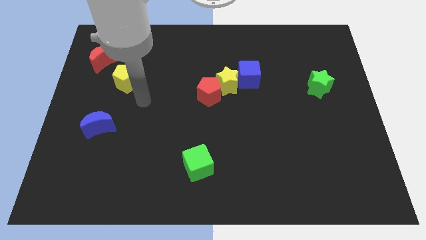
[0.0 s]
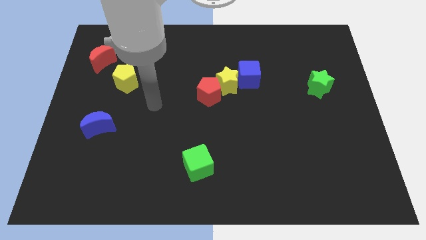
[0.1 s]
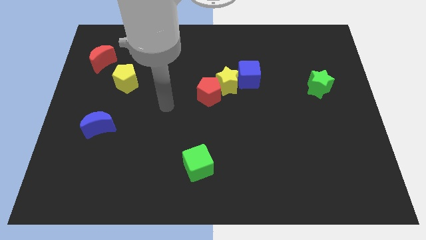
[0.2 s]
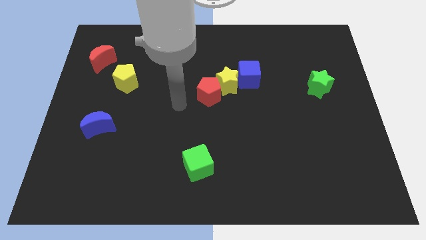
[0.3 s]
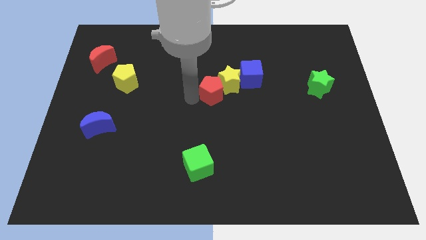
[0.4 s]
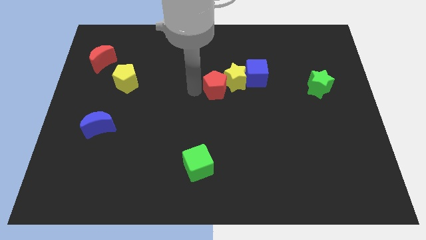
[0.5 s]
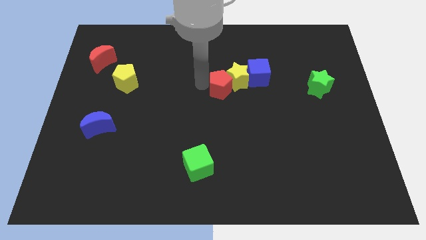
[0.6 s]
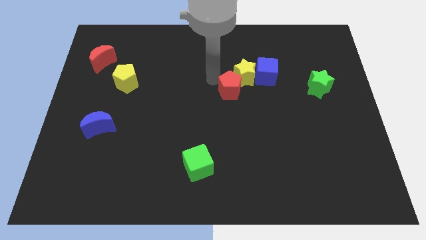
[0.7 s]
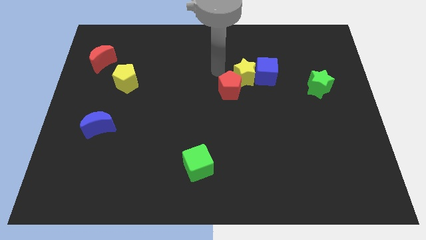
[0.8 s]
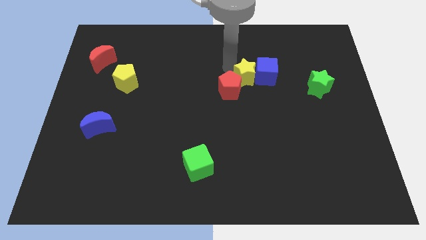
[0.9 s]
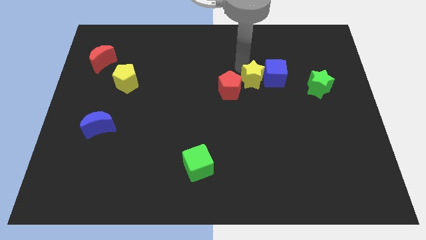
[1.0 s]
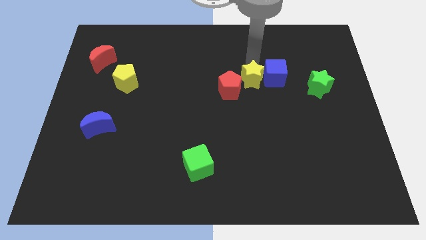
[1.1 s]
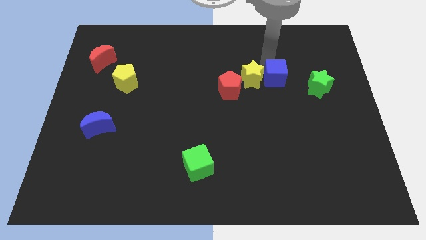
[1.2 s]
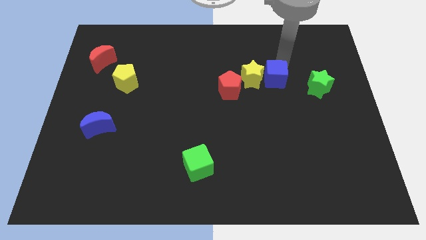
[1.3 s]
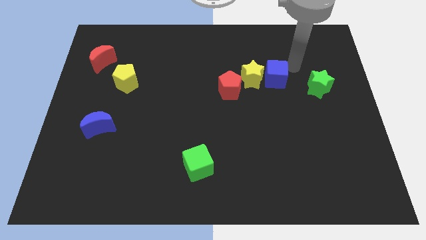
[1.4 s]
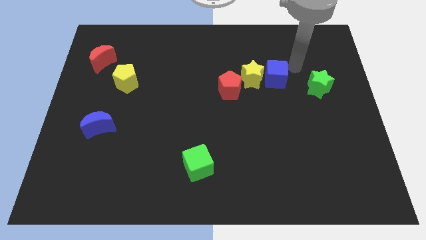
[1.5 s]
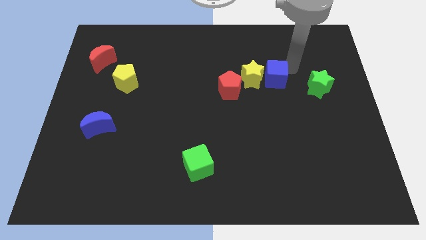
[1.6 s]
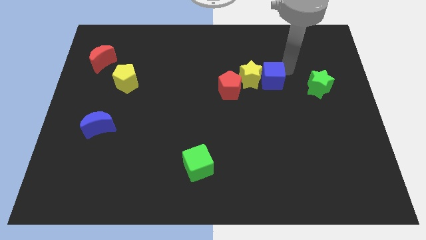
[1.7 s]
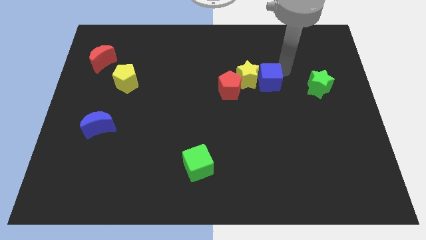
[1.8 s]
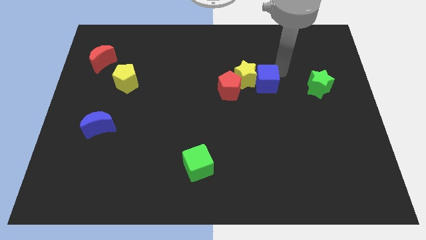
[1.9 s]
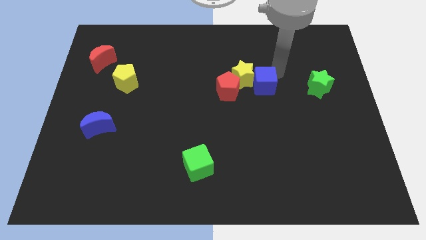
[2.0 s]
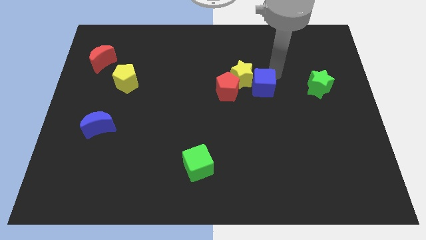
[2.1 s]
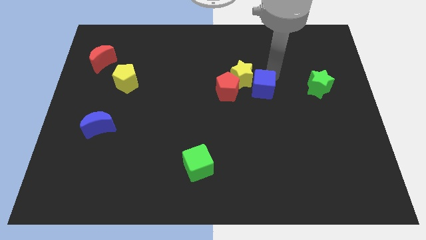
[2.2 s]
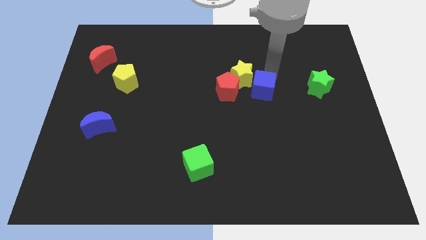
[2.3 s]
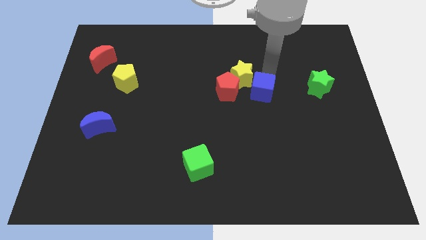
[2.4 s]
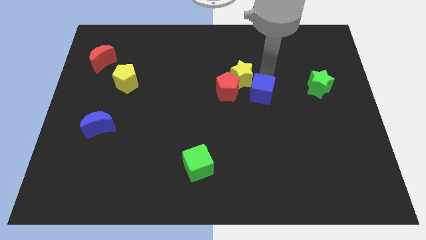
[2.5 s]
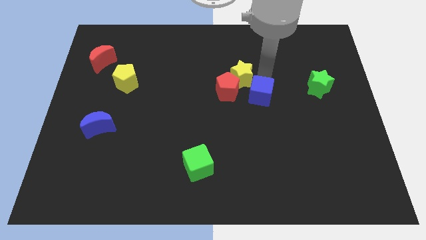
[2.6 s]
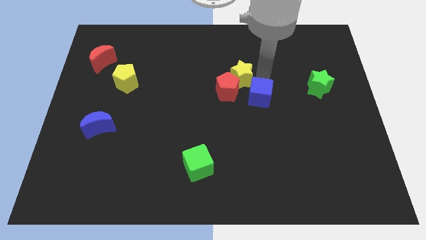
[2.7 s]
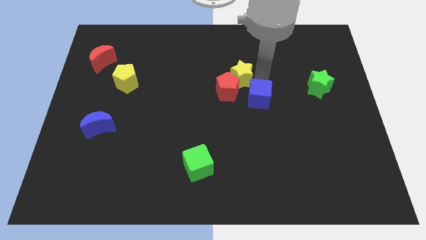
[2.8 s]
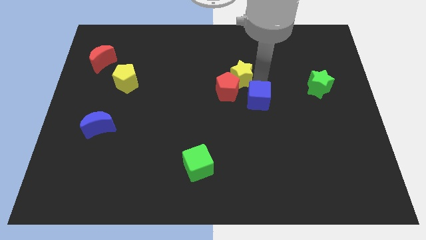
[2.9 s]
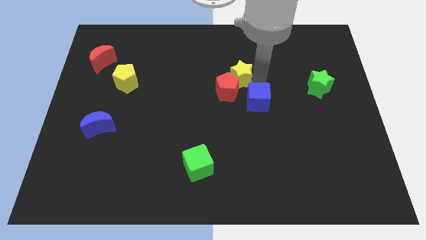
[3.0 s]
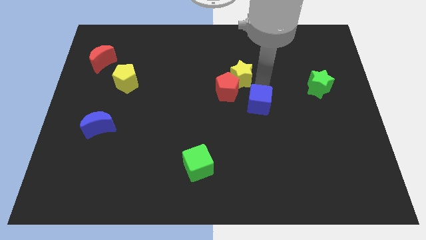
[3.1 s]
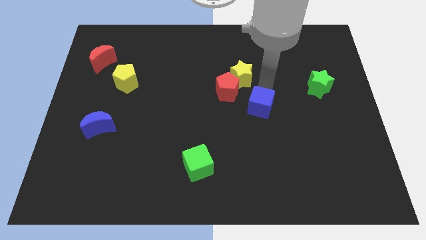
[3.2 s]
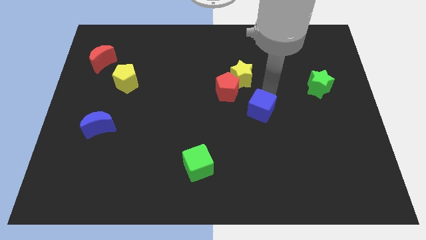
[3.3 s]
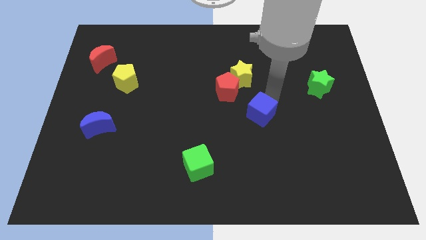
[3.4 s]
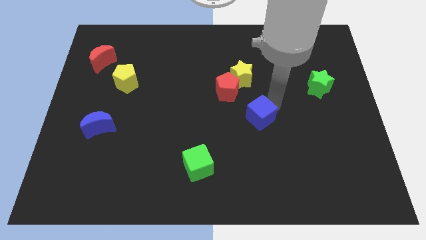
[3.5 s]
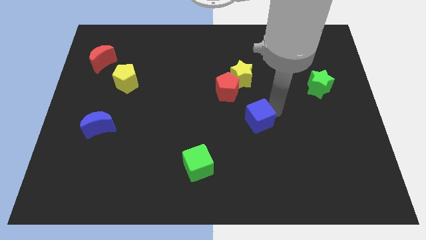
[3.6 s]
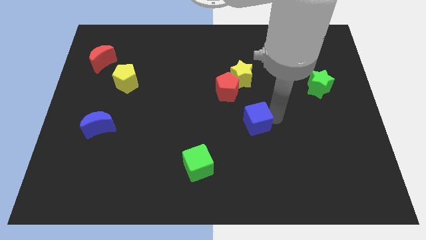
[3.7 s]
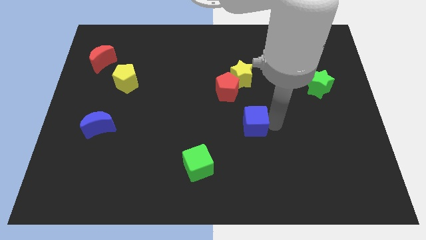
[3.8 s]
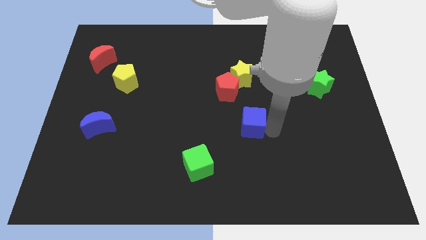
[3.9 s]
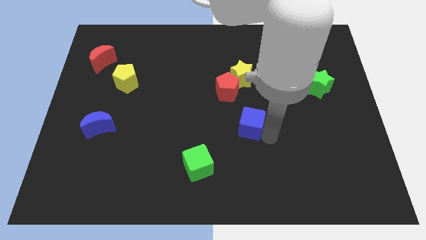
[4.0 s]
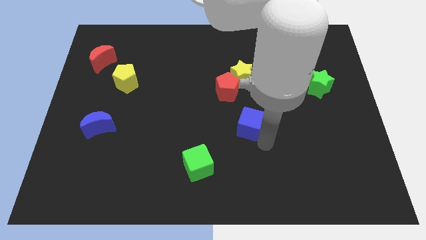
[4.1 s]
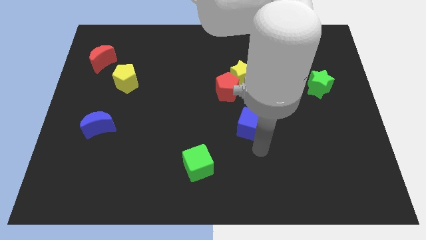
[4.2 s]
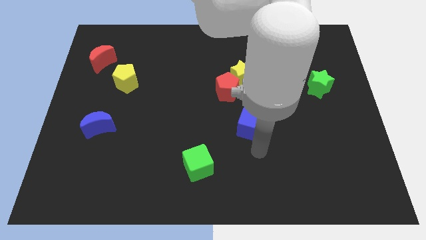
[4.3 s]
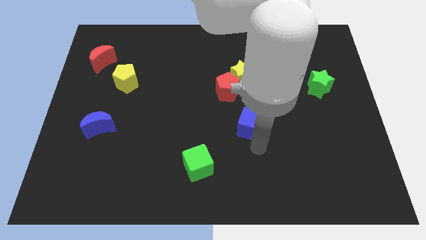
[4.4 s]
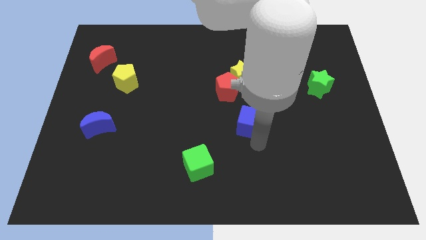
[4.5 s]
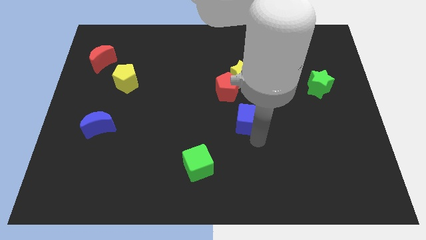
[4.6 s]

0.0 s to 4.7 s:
push the blue cube downwards and then to the left somewhat

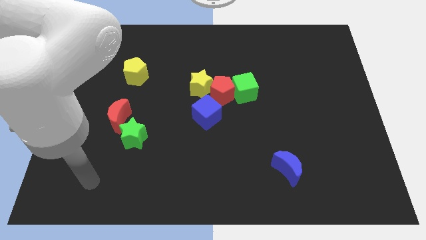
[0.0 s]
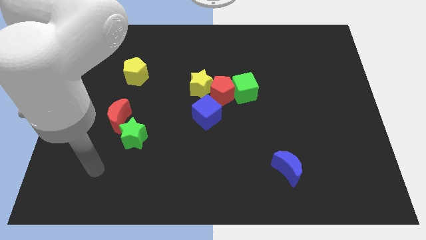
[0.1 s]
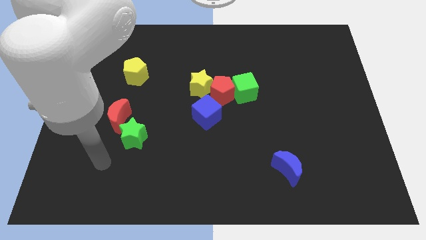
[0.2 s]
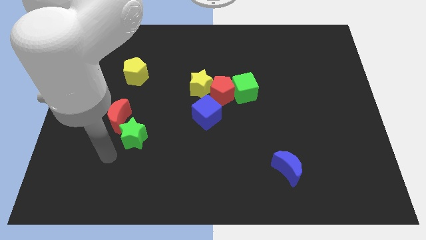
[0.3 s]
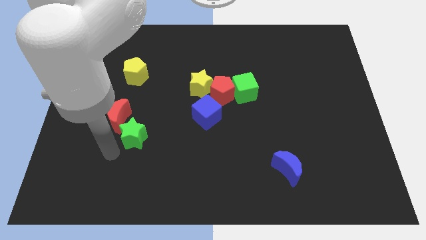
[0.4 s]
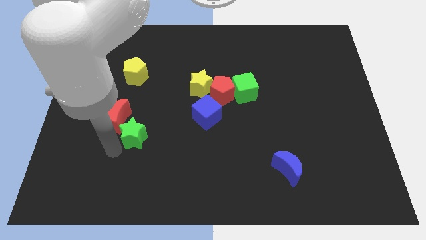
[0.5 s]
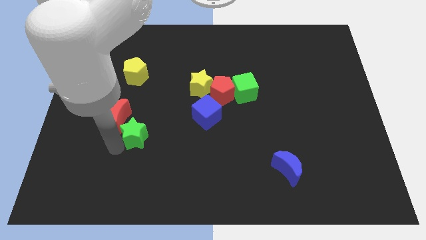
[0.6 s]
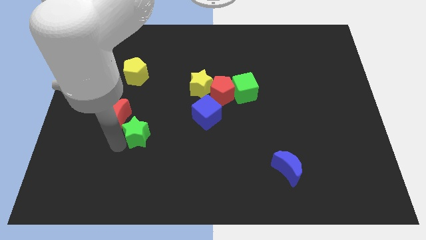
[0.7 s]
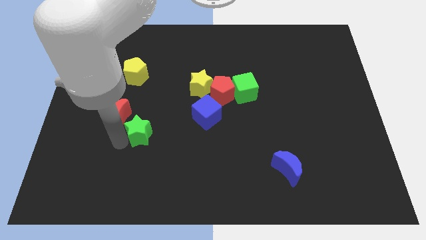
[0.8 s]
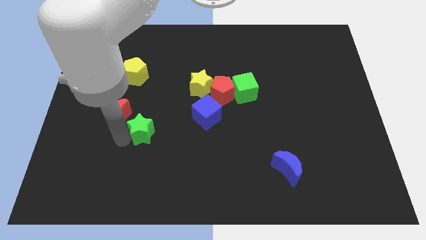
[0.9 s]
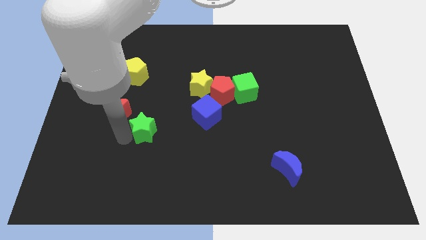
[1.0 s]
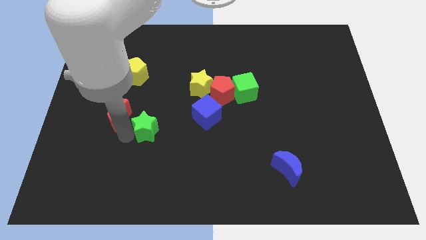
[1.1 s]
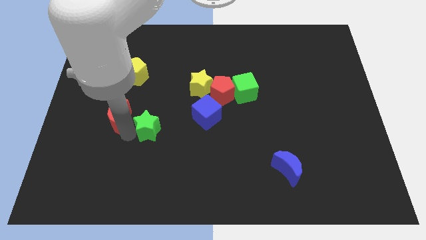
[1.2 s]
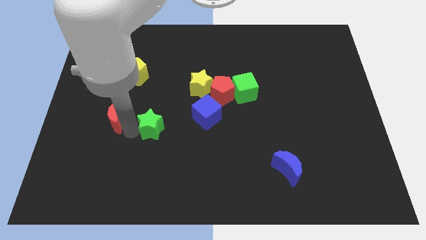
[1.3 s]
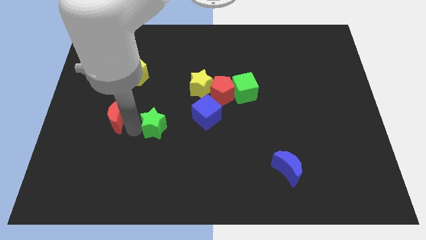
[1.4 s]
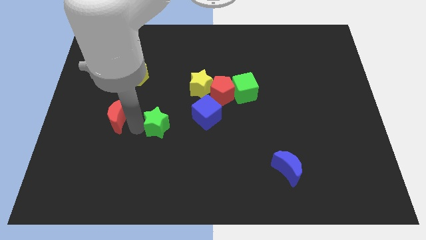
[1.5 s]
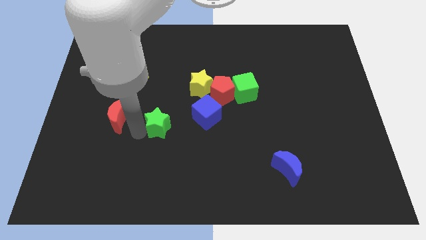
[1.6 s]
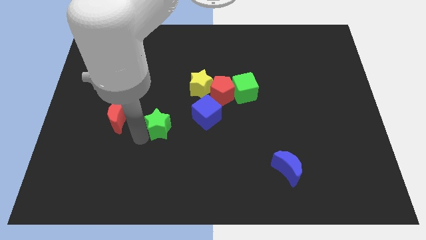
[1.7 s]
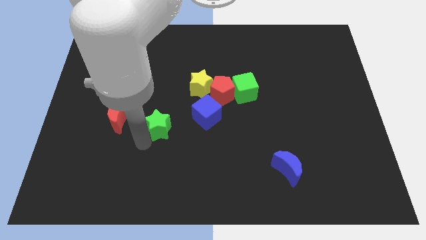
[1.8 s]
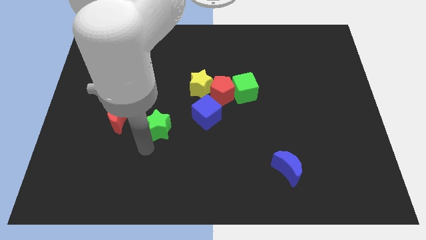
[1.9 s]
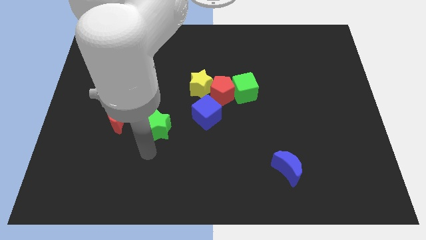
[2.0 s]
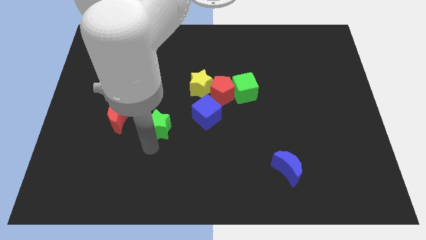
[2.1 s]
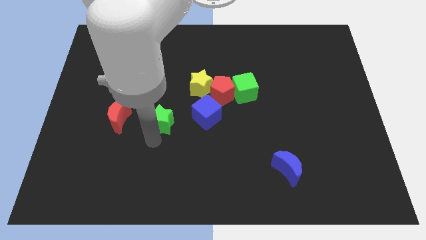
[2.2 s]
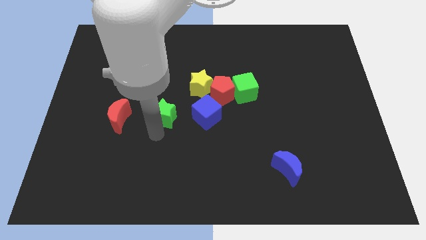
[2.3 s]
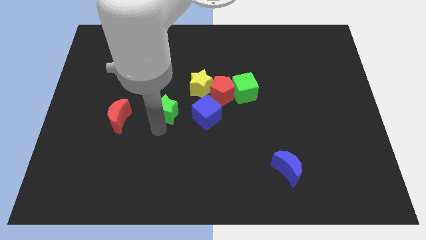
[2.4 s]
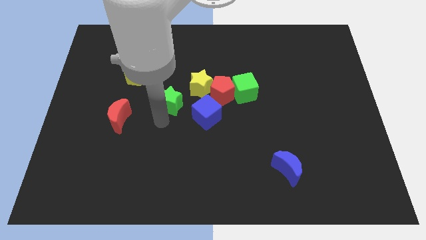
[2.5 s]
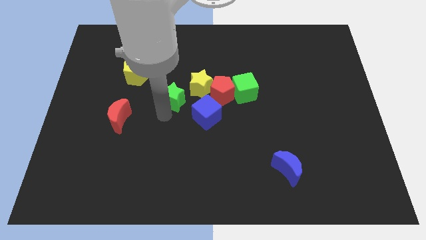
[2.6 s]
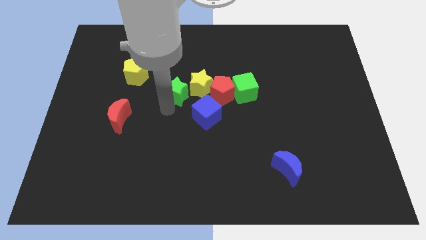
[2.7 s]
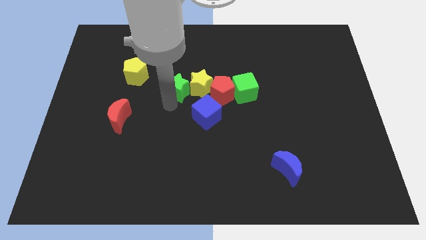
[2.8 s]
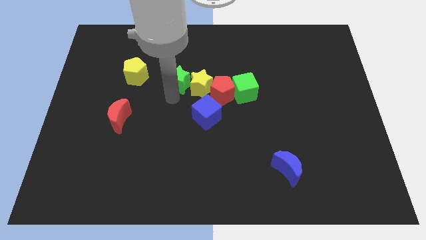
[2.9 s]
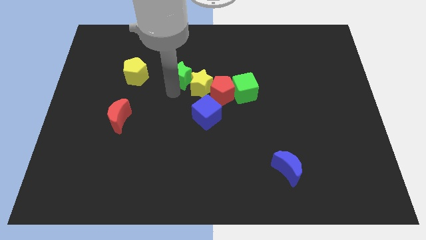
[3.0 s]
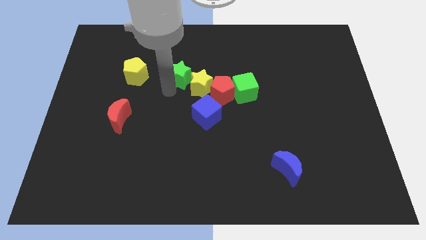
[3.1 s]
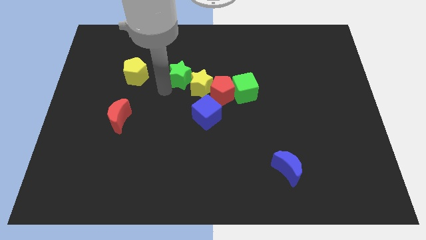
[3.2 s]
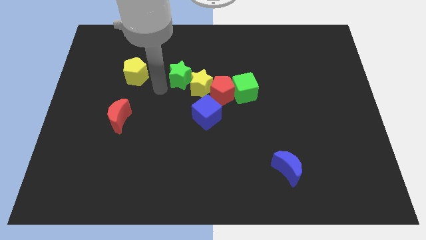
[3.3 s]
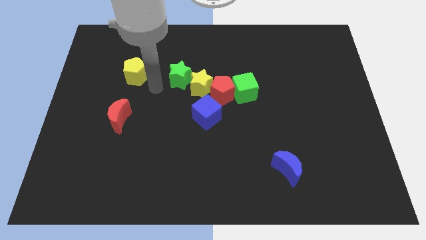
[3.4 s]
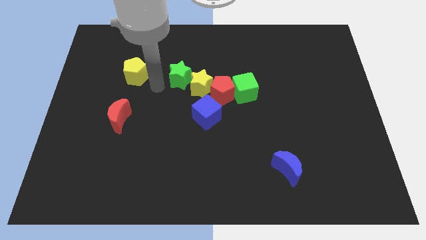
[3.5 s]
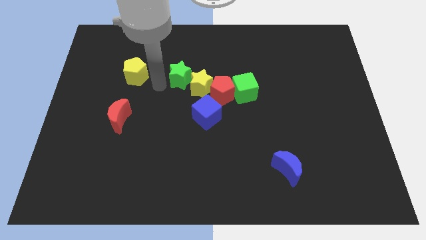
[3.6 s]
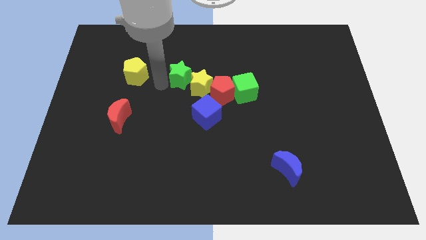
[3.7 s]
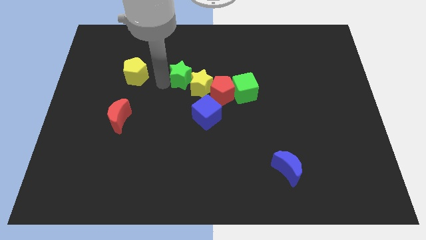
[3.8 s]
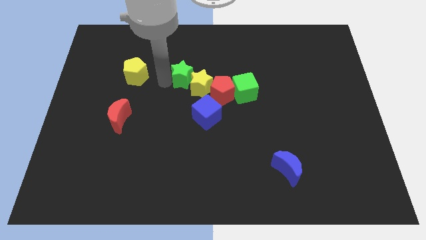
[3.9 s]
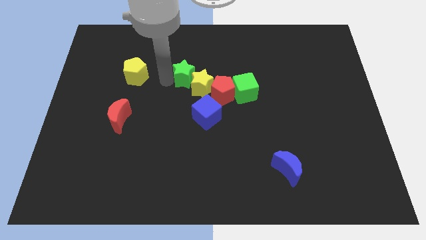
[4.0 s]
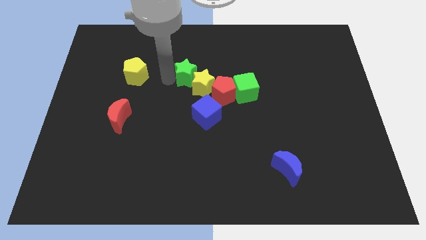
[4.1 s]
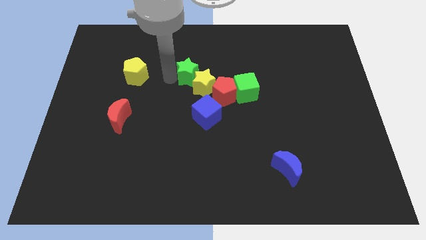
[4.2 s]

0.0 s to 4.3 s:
push the green star upwards and right diagonally
